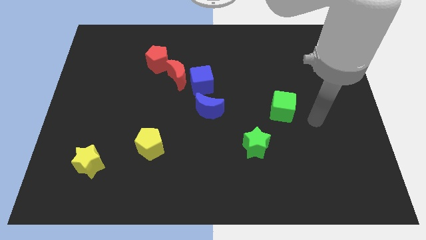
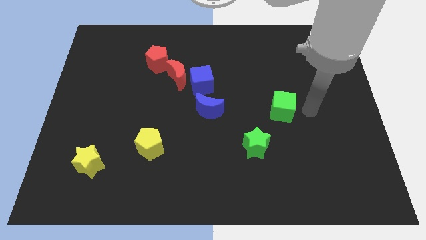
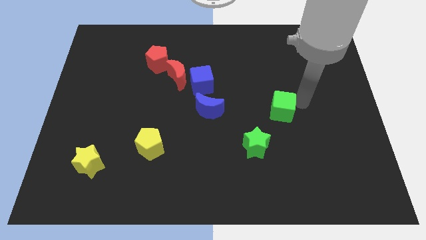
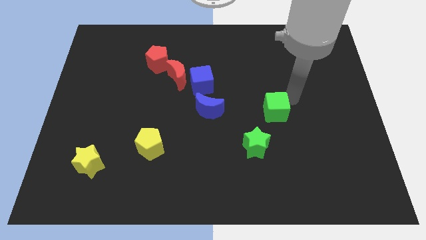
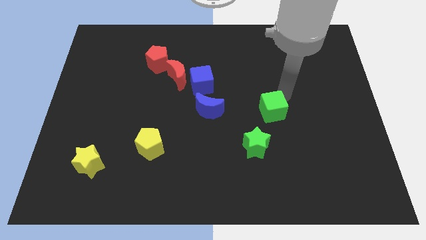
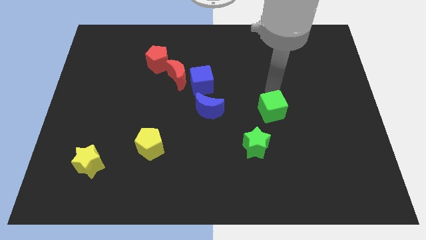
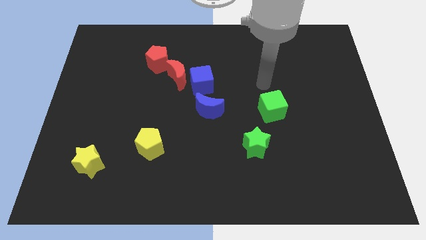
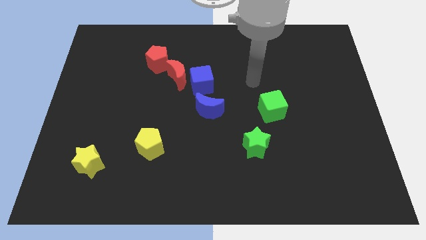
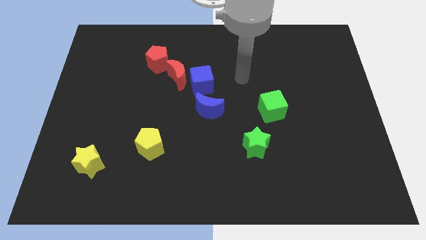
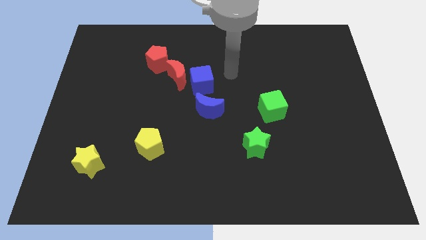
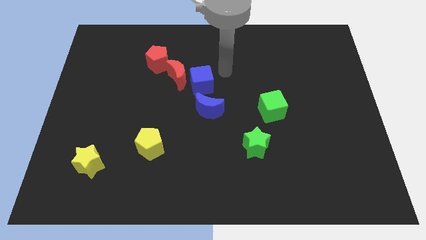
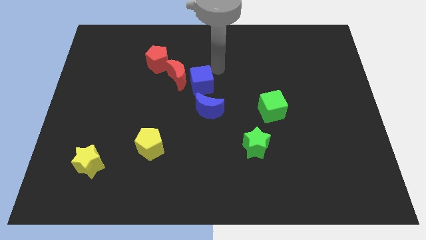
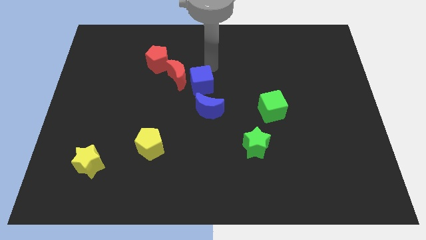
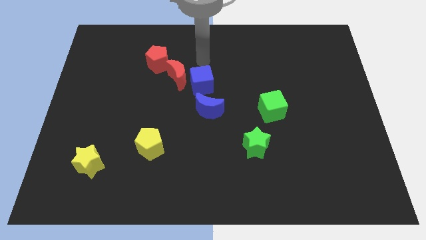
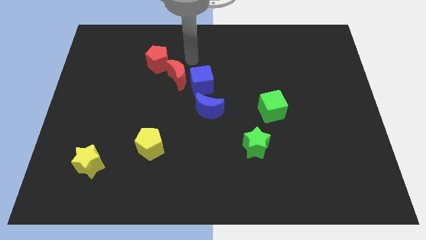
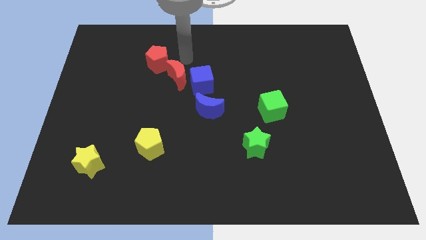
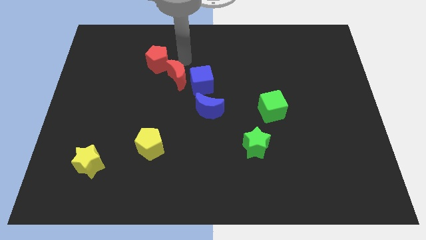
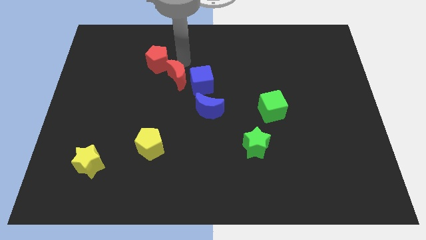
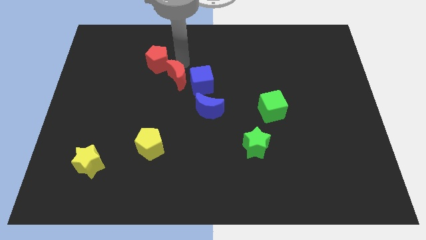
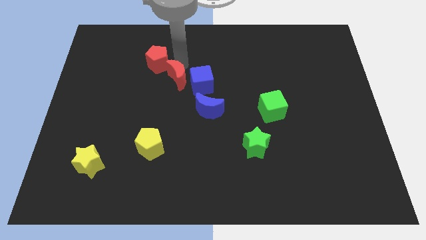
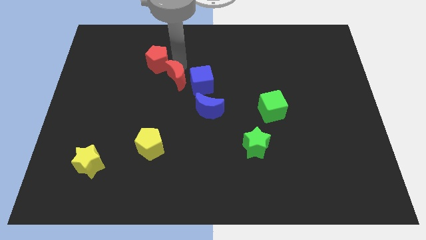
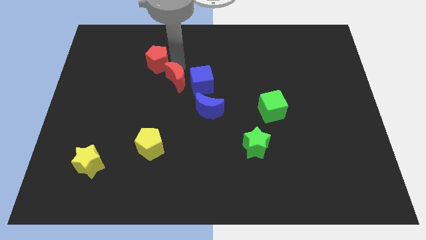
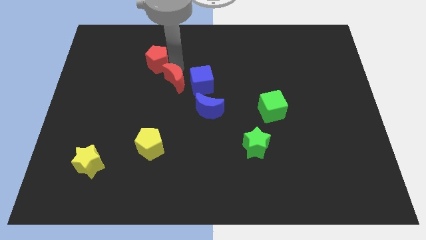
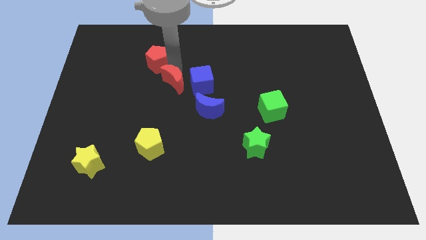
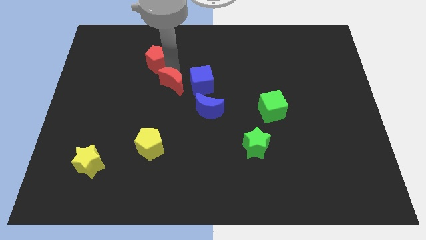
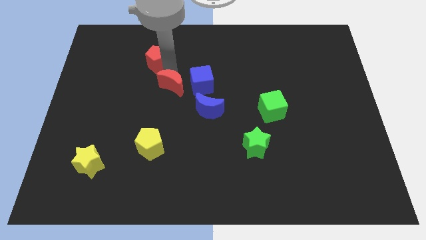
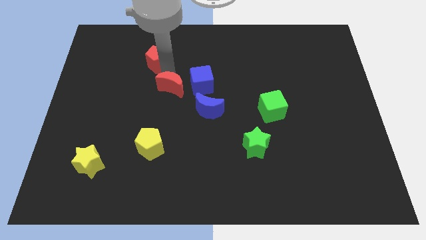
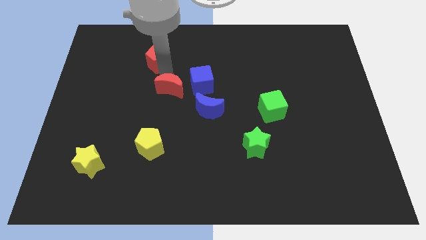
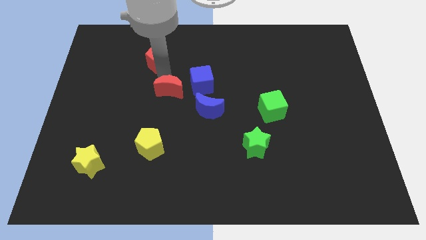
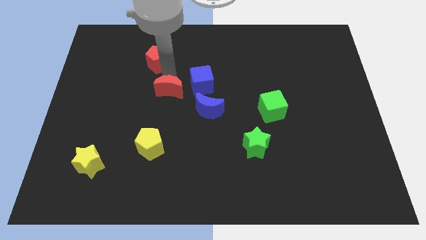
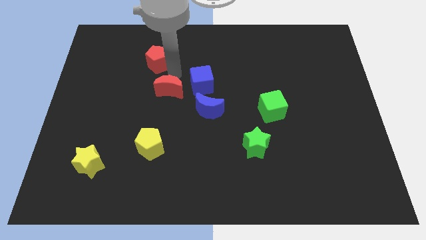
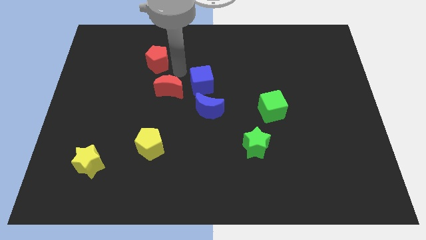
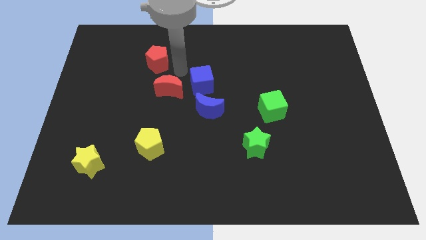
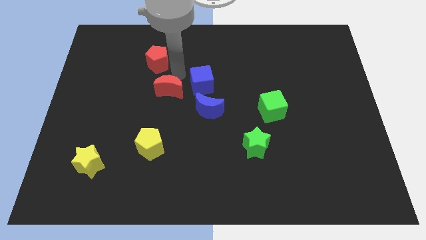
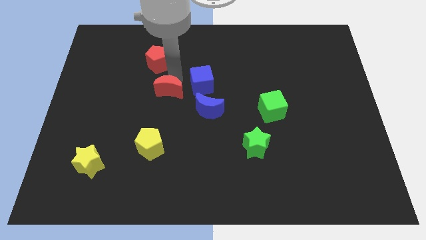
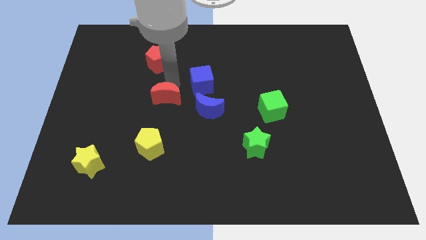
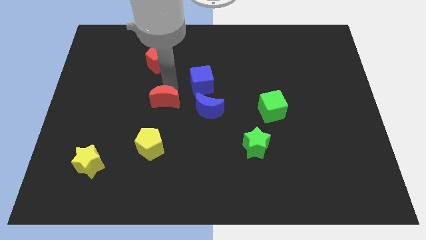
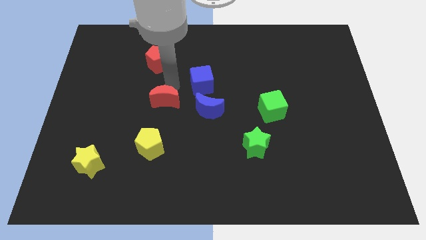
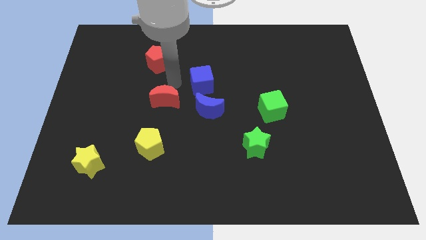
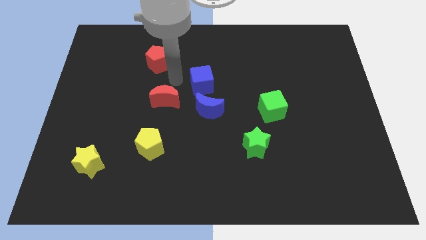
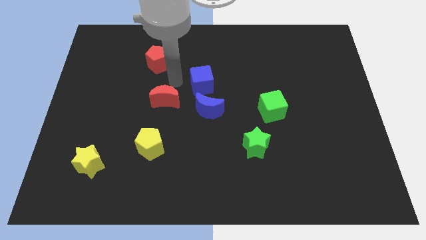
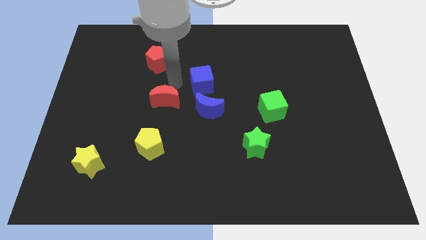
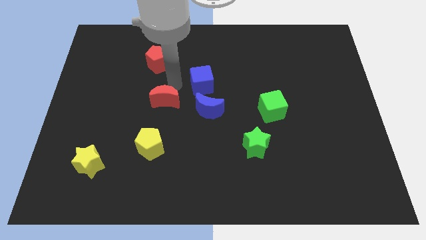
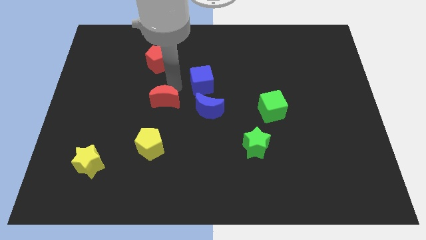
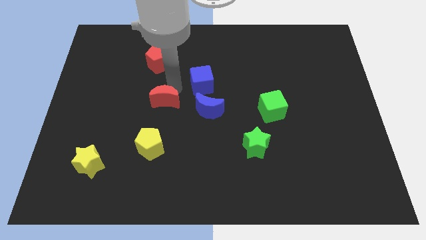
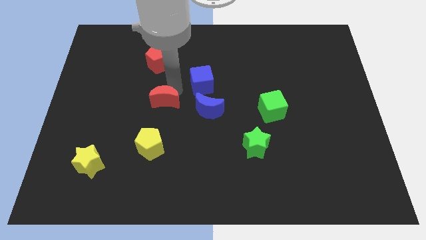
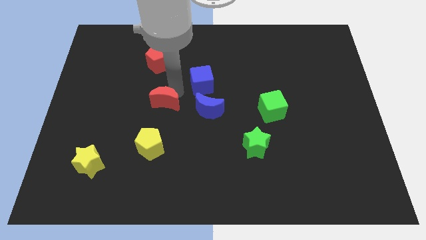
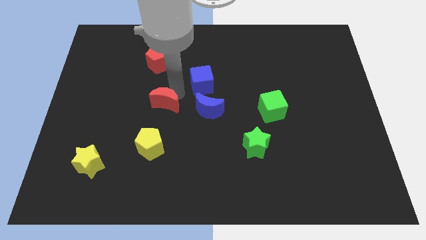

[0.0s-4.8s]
move the red moon away from the blue cube and red pentagon

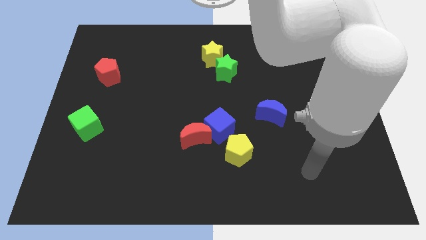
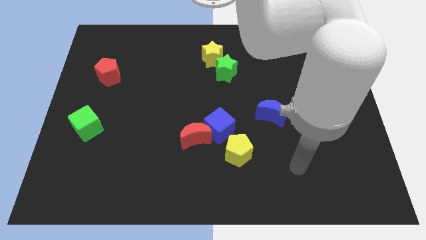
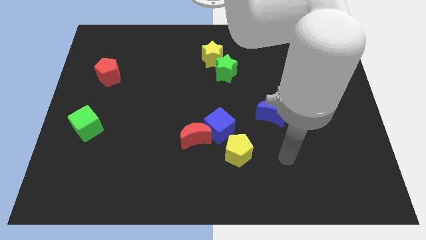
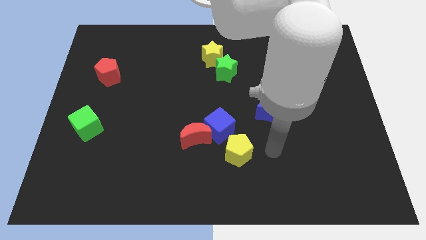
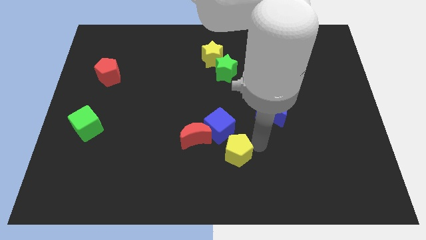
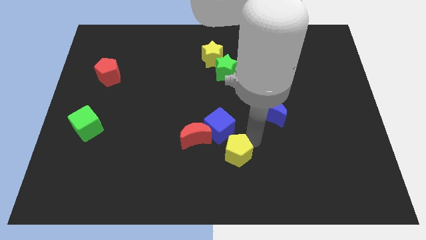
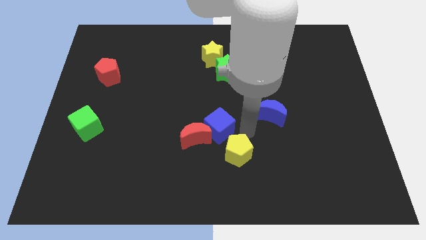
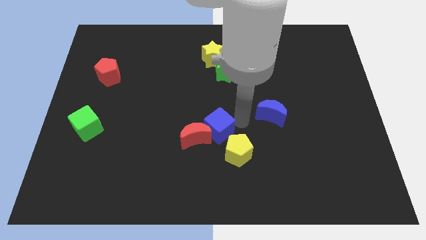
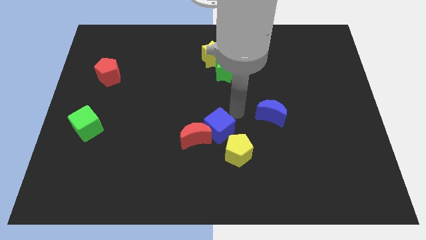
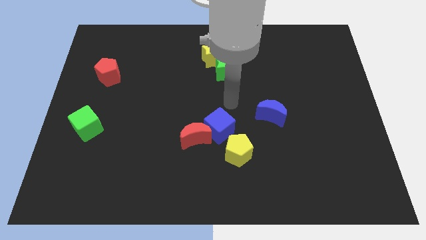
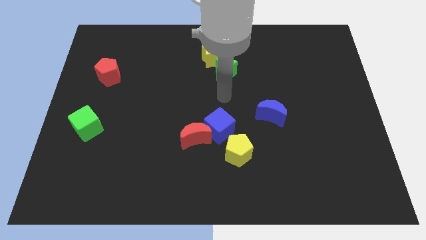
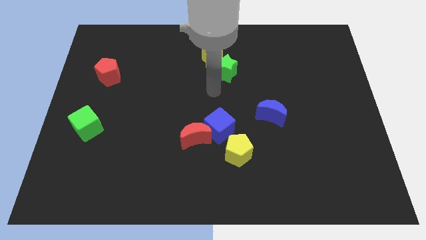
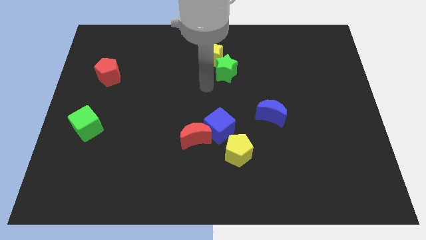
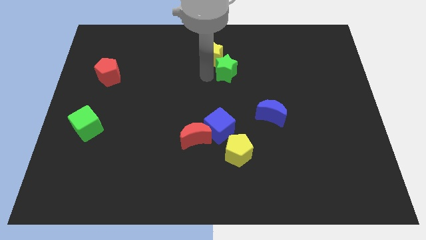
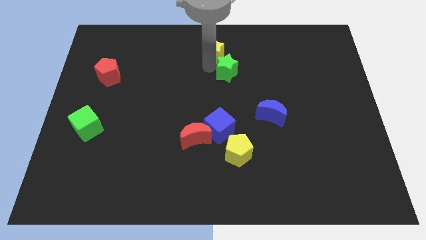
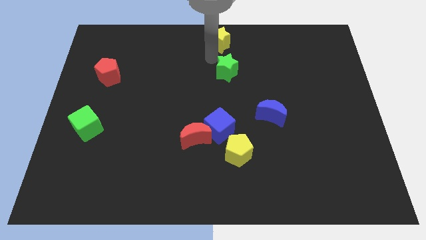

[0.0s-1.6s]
move the green star away from the yellow star

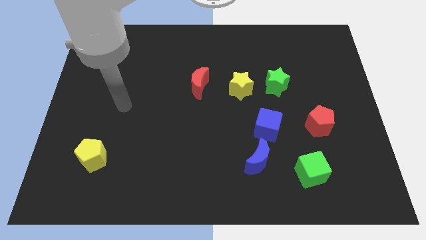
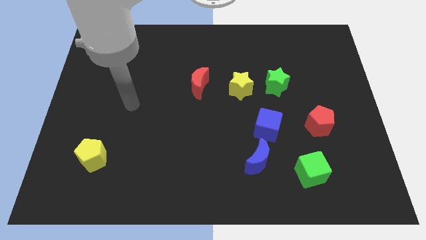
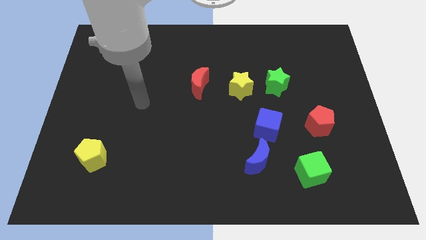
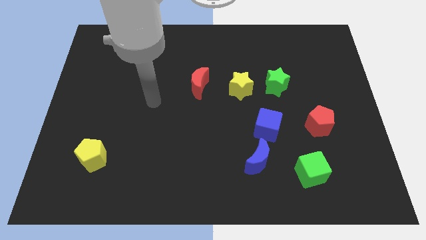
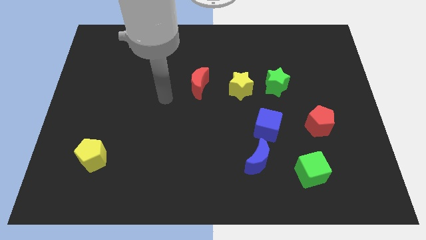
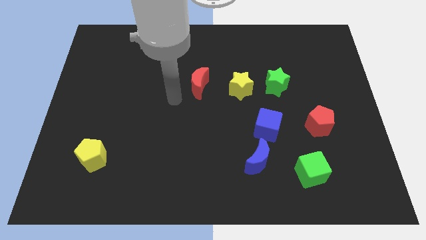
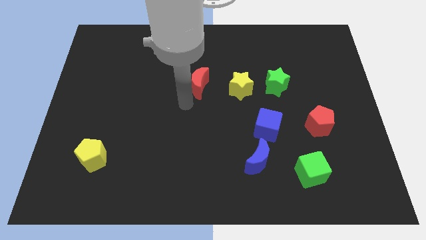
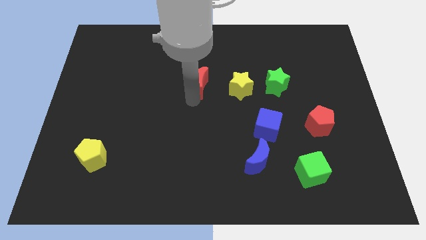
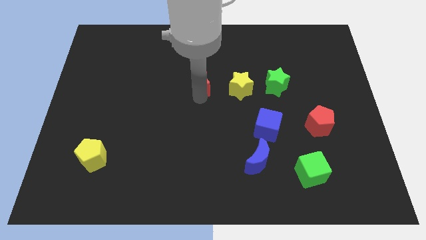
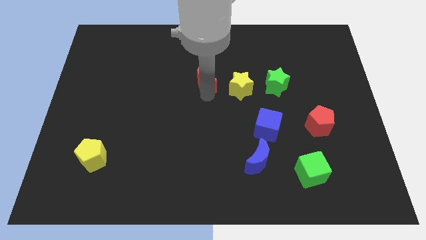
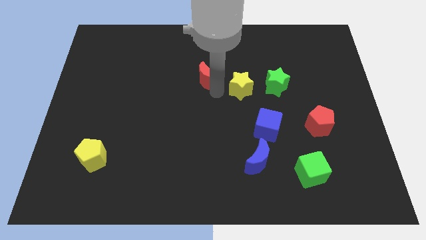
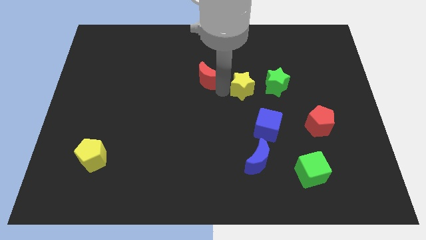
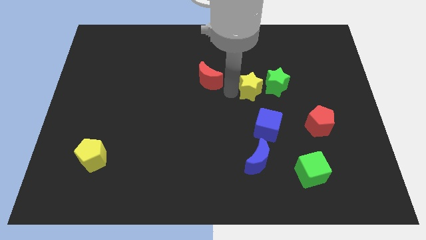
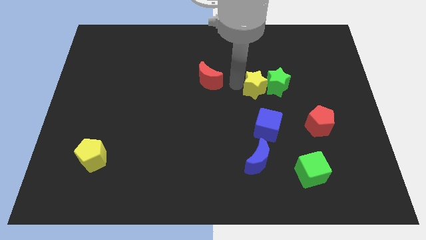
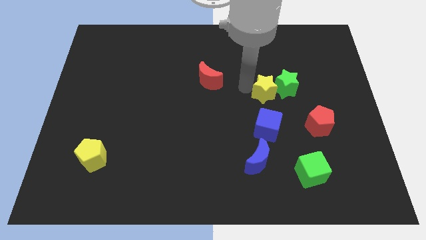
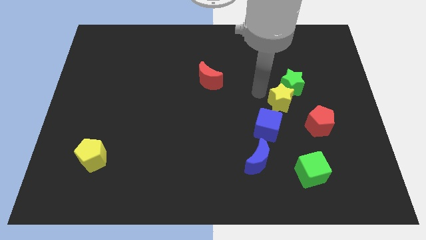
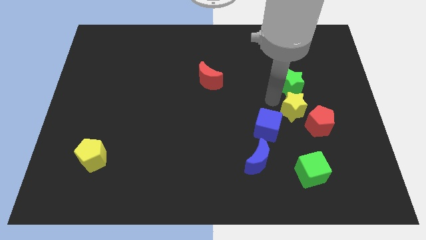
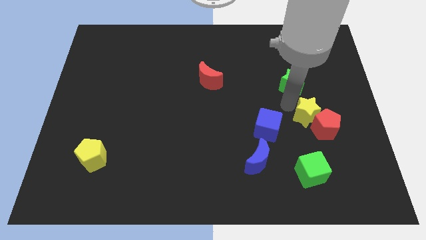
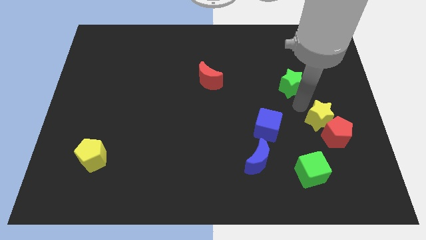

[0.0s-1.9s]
separate the green star from the yellow star

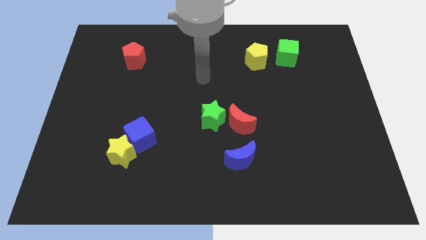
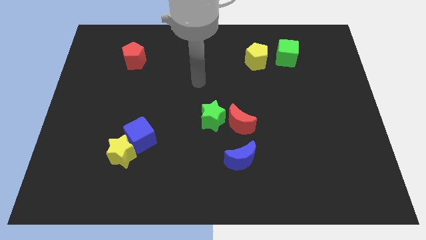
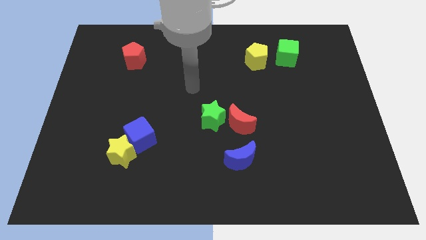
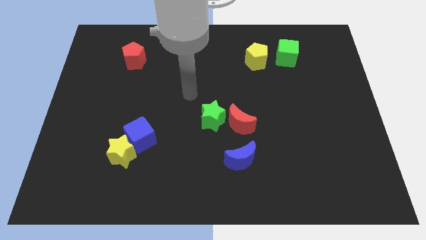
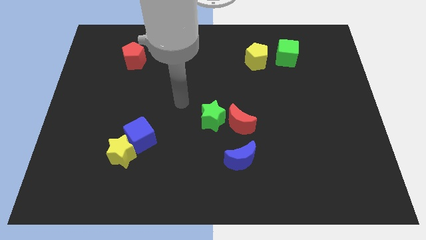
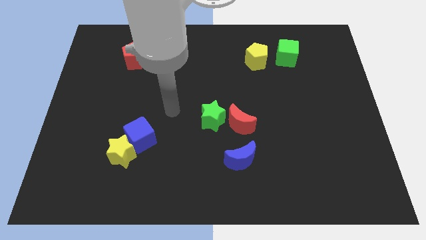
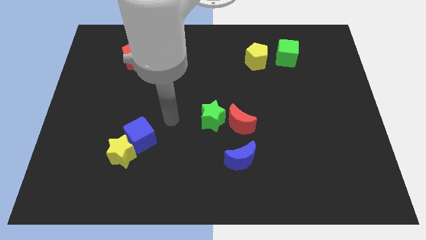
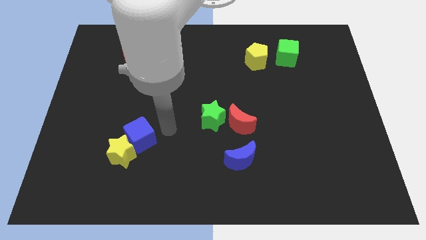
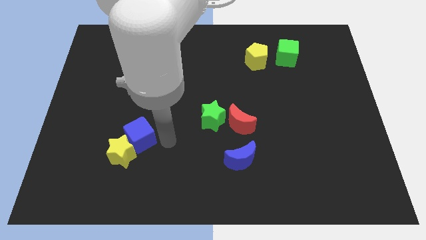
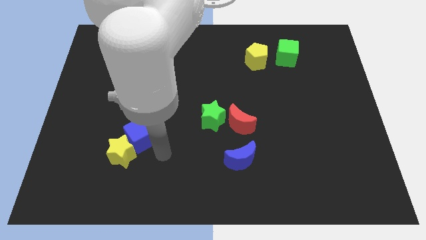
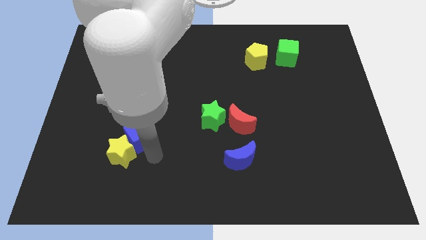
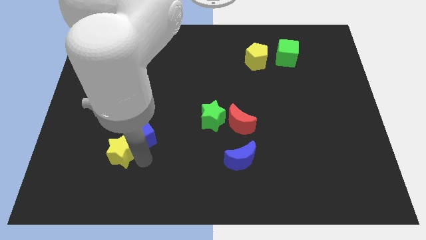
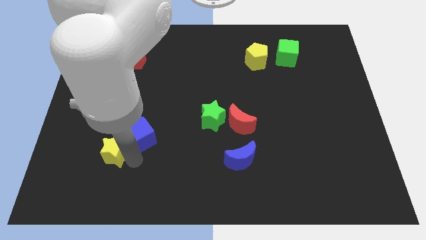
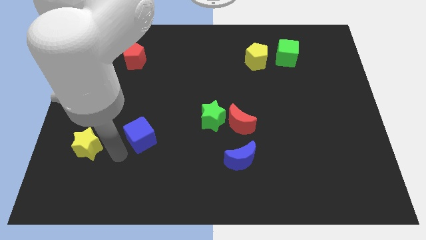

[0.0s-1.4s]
move the blue cube away from the yellow star
